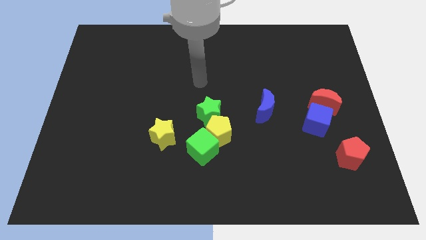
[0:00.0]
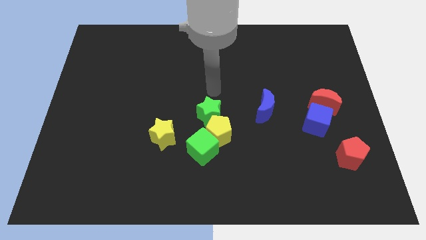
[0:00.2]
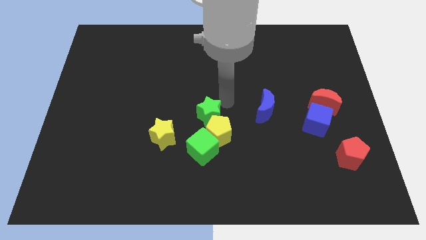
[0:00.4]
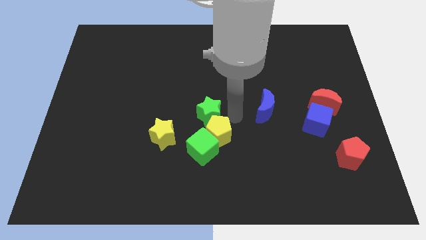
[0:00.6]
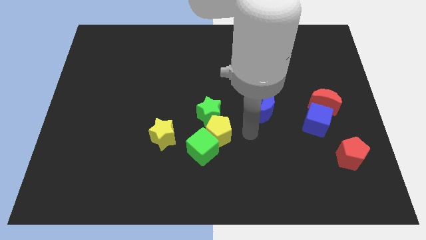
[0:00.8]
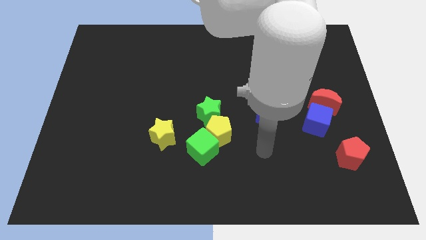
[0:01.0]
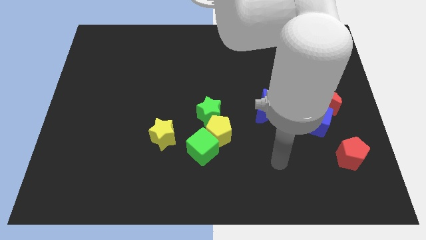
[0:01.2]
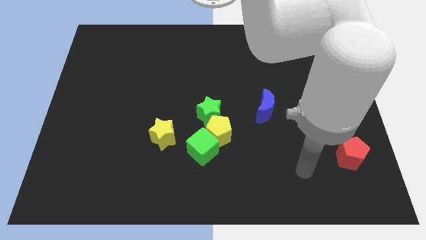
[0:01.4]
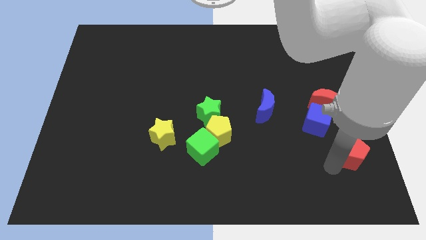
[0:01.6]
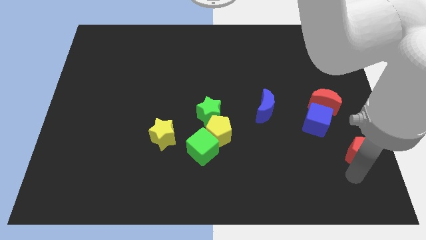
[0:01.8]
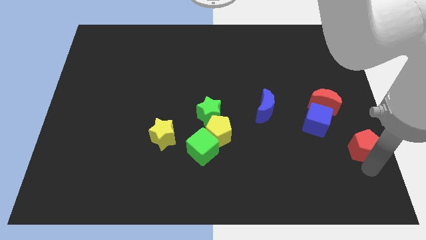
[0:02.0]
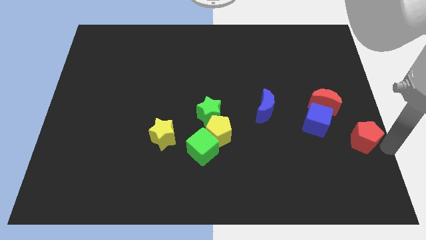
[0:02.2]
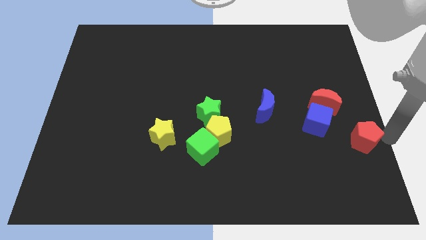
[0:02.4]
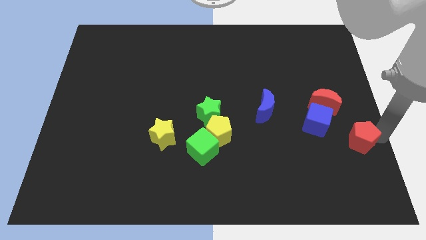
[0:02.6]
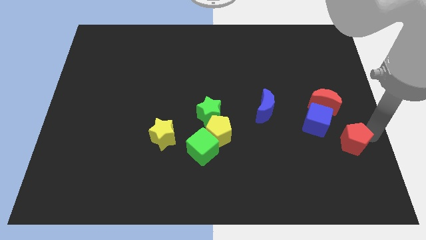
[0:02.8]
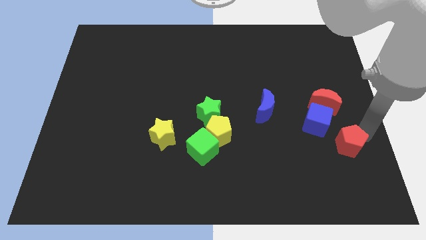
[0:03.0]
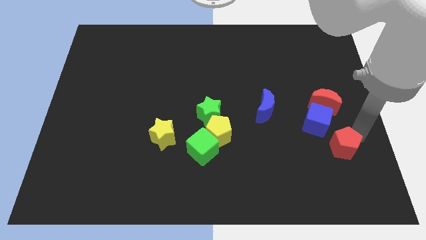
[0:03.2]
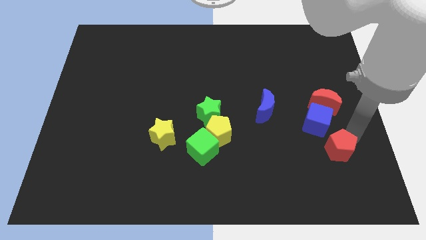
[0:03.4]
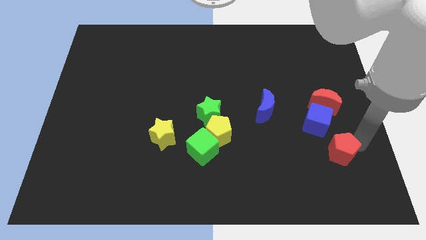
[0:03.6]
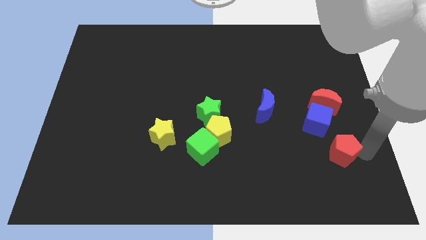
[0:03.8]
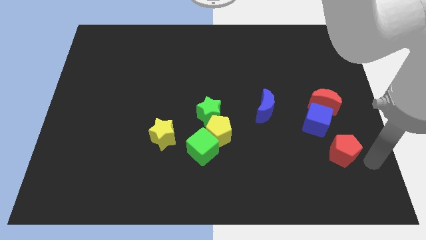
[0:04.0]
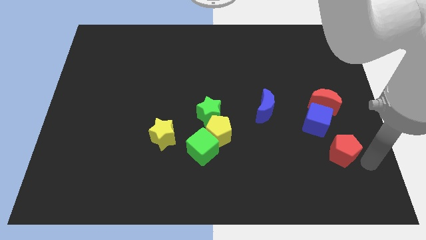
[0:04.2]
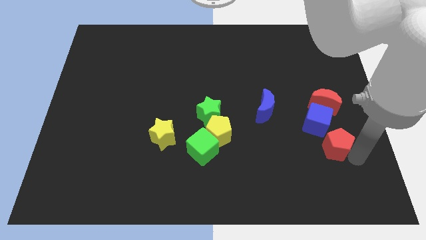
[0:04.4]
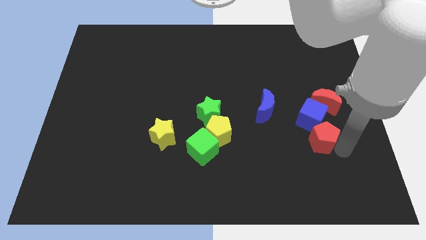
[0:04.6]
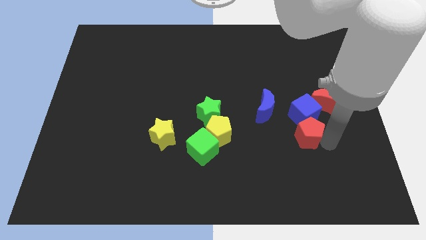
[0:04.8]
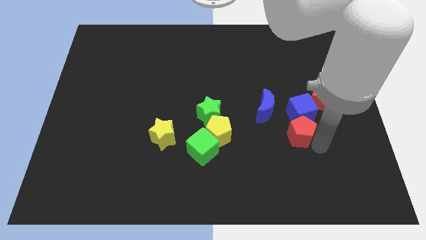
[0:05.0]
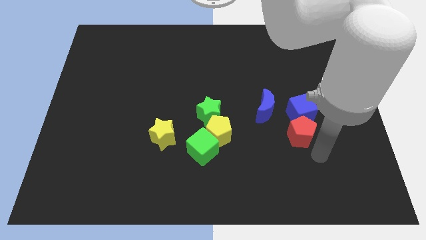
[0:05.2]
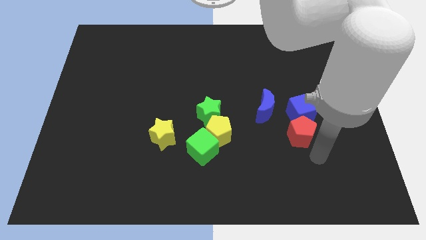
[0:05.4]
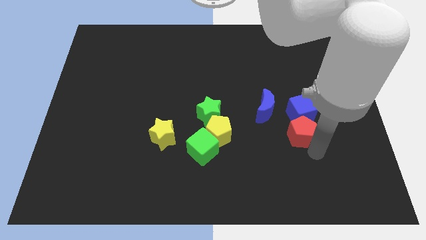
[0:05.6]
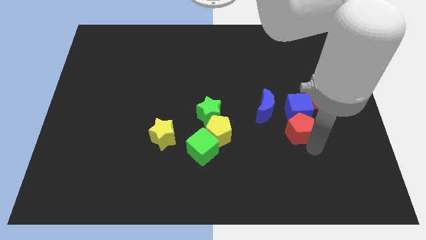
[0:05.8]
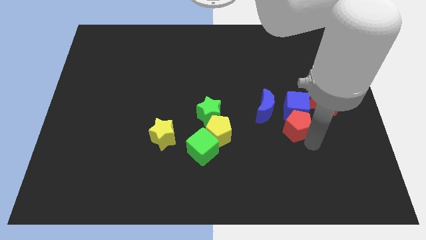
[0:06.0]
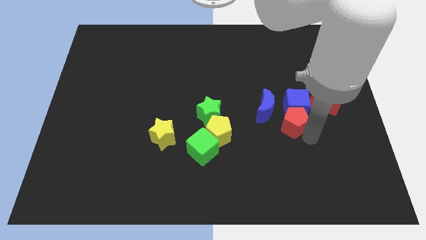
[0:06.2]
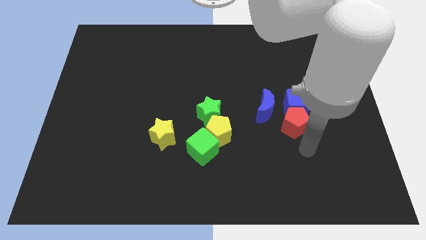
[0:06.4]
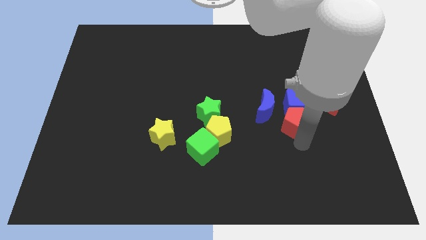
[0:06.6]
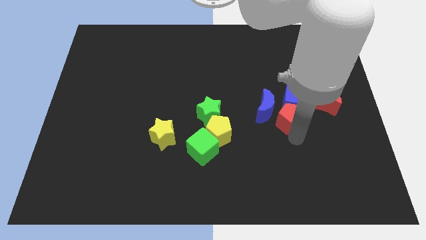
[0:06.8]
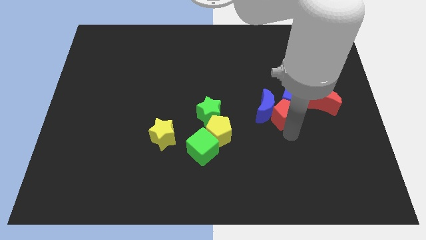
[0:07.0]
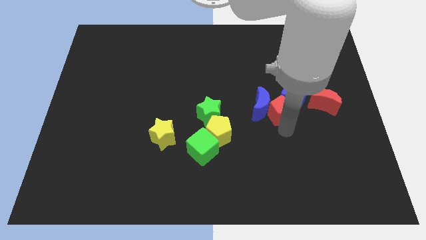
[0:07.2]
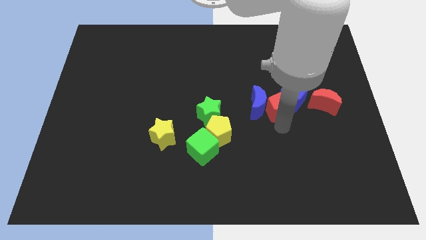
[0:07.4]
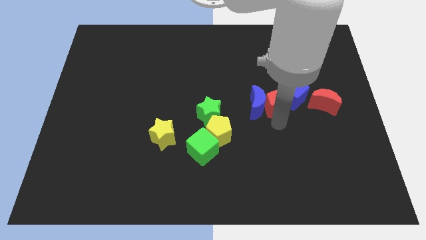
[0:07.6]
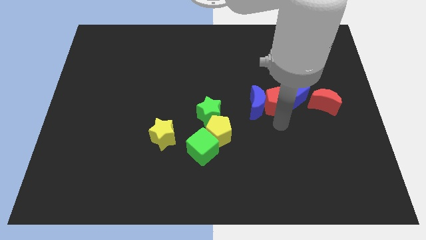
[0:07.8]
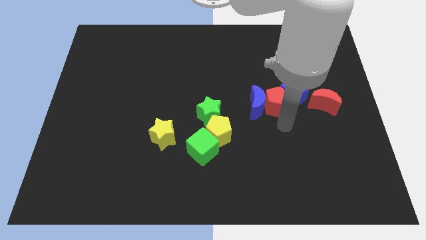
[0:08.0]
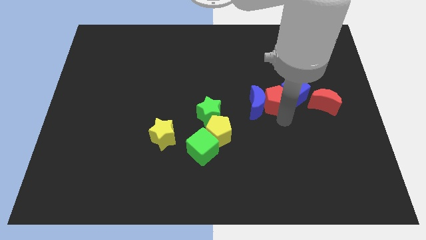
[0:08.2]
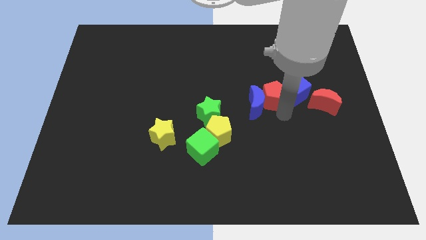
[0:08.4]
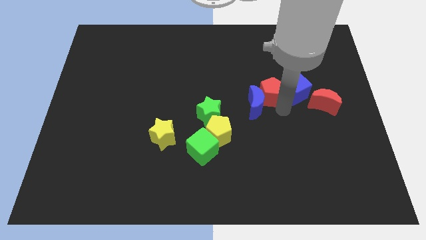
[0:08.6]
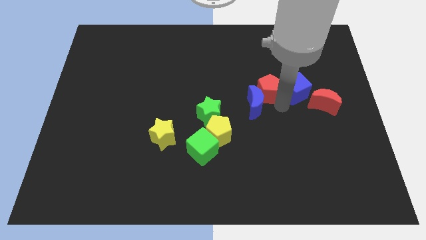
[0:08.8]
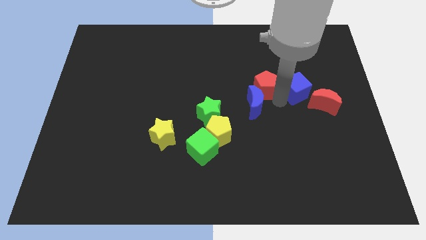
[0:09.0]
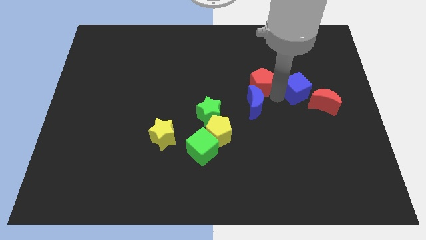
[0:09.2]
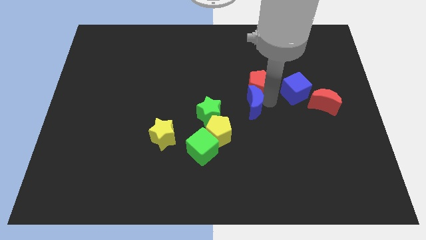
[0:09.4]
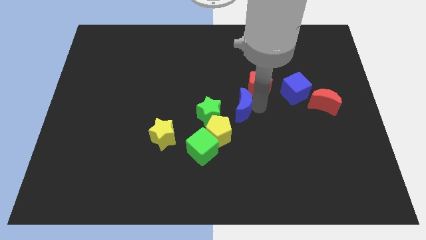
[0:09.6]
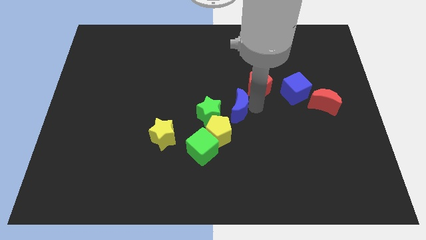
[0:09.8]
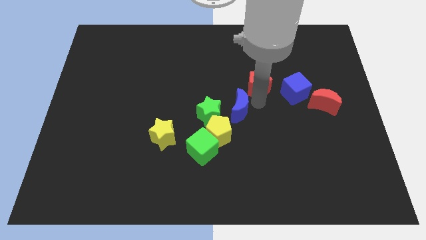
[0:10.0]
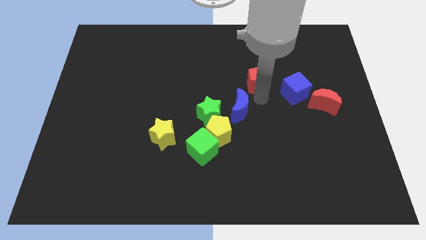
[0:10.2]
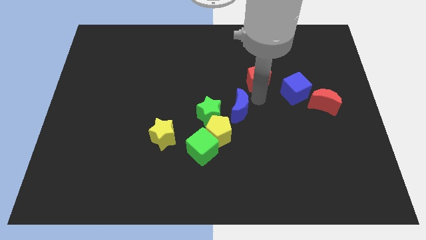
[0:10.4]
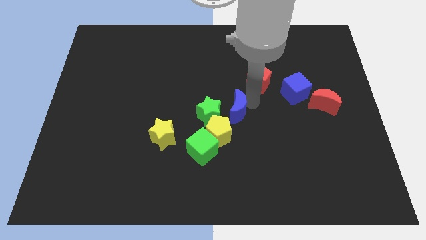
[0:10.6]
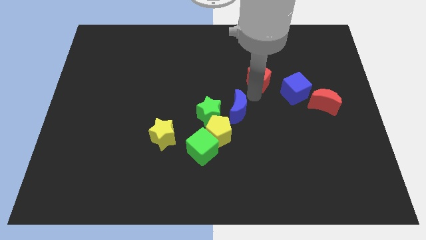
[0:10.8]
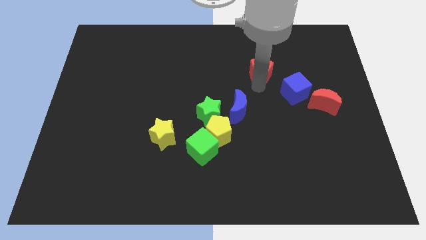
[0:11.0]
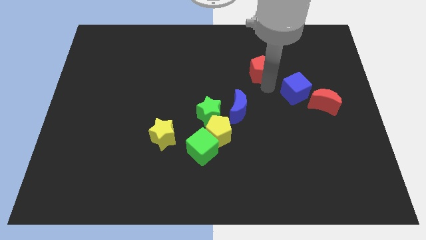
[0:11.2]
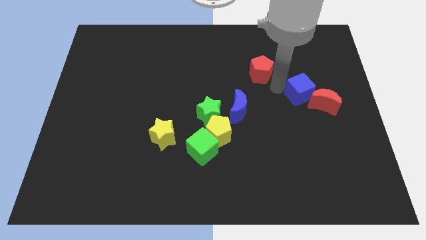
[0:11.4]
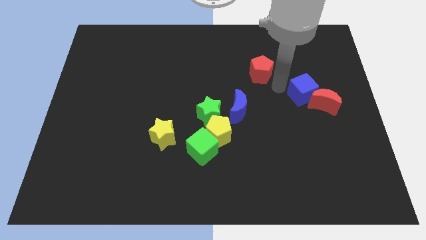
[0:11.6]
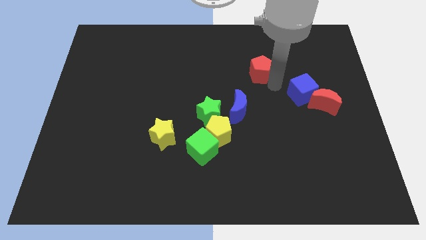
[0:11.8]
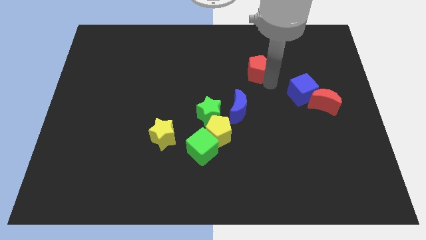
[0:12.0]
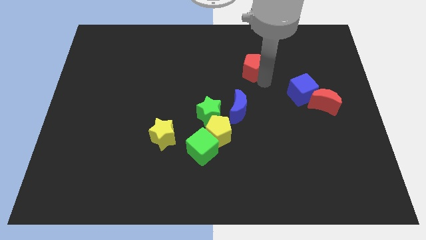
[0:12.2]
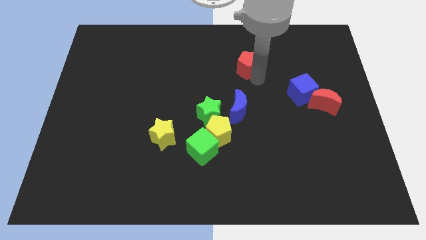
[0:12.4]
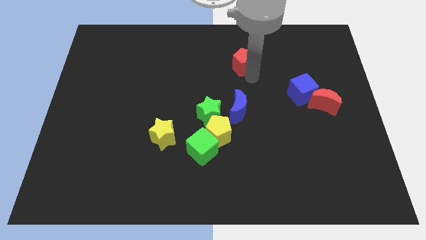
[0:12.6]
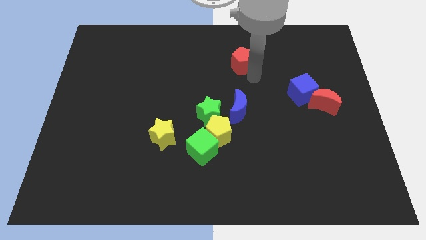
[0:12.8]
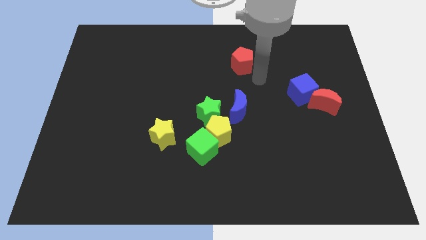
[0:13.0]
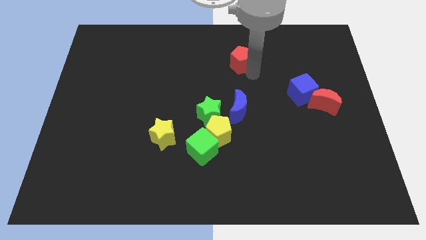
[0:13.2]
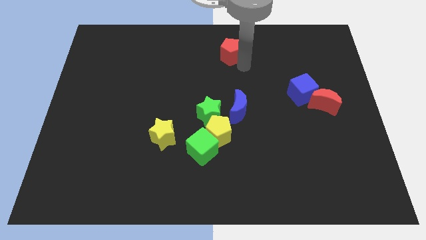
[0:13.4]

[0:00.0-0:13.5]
push the red pentagon to the top side
